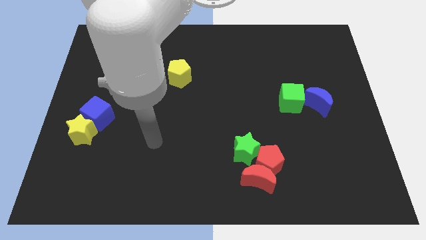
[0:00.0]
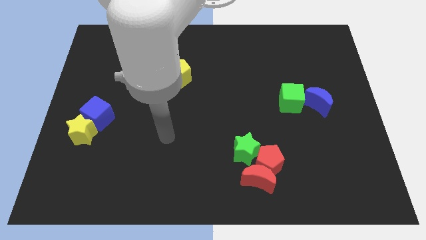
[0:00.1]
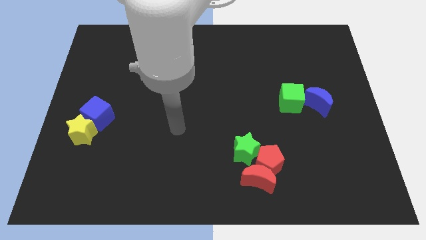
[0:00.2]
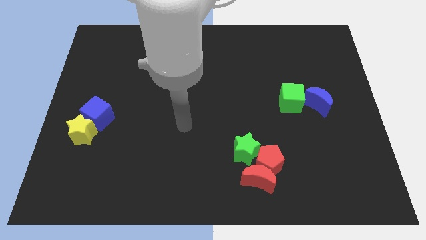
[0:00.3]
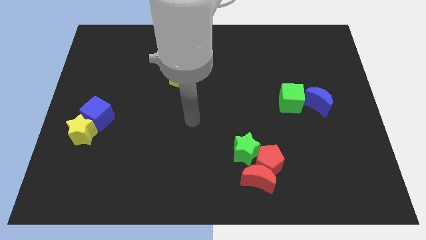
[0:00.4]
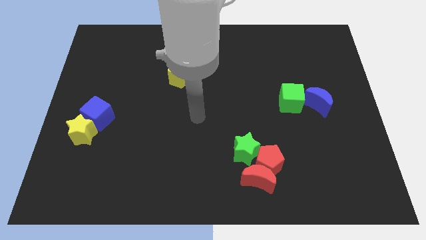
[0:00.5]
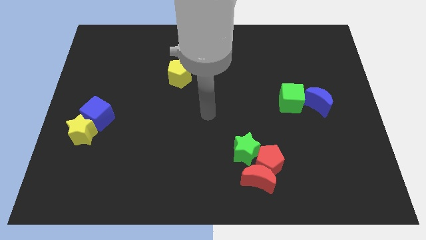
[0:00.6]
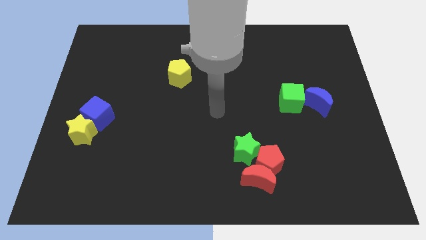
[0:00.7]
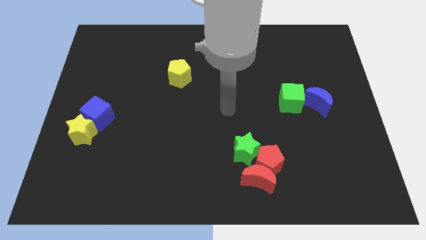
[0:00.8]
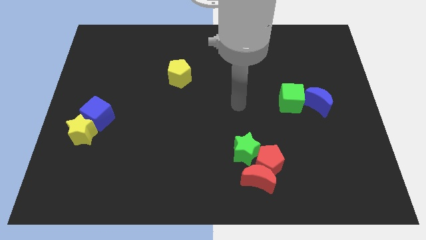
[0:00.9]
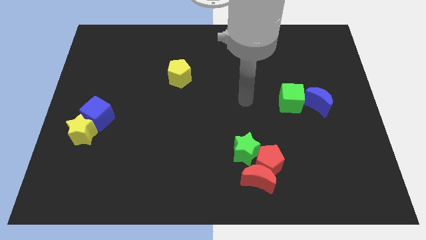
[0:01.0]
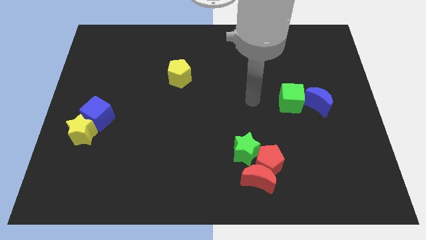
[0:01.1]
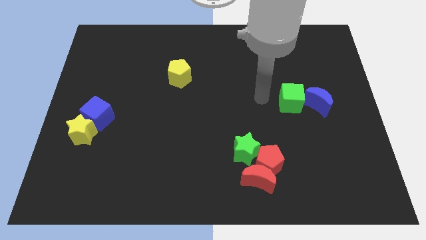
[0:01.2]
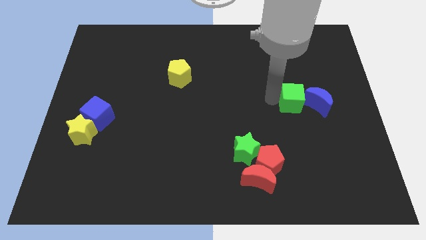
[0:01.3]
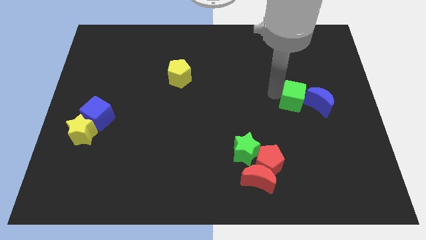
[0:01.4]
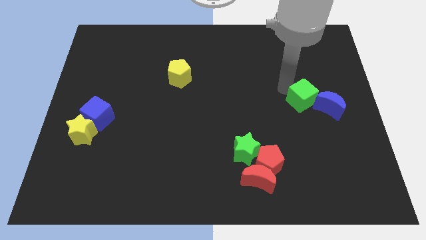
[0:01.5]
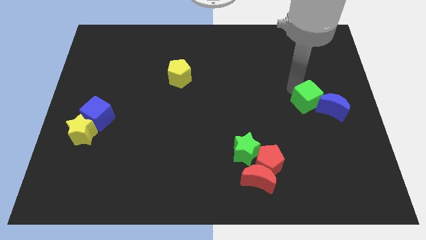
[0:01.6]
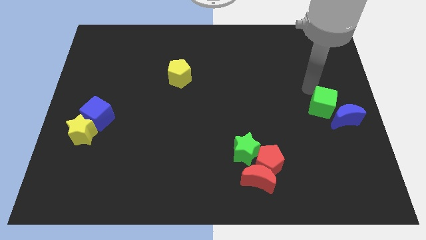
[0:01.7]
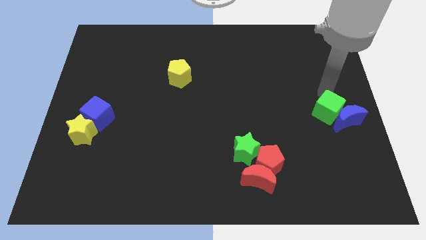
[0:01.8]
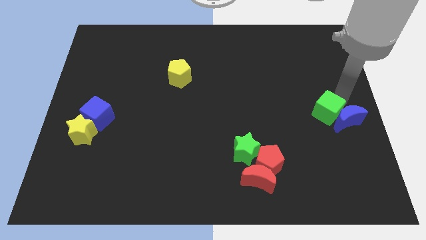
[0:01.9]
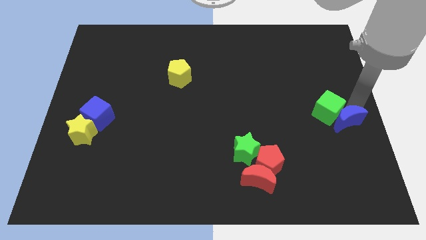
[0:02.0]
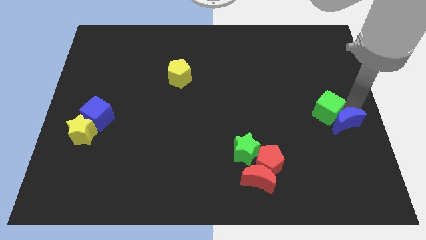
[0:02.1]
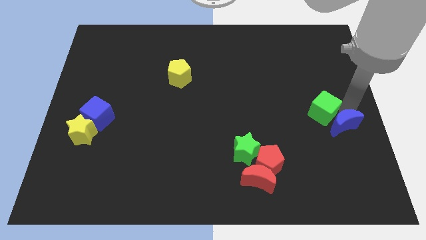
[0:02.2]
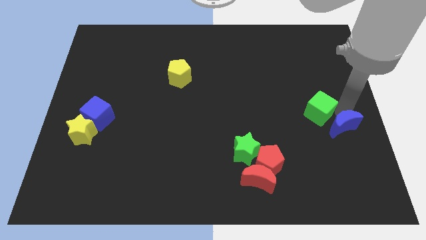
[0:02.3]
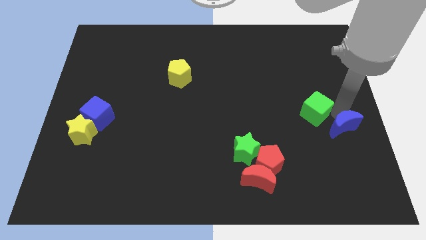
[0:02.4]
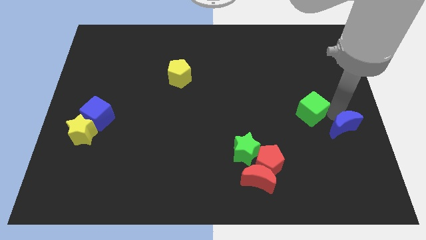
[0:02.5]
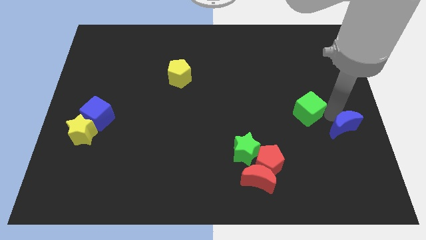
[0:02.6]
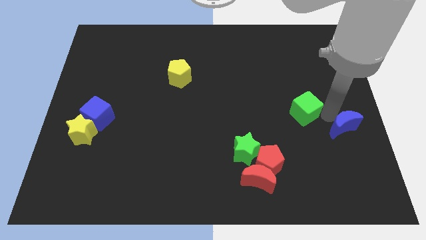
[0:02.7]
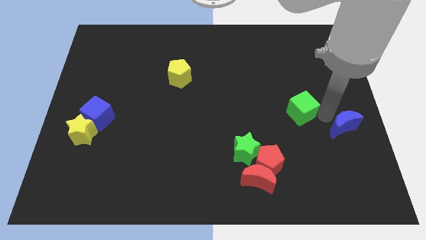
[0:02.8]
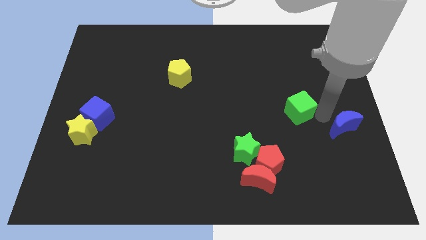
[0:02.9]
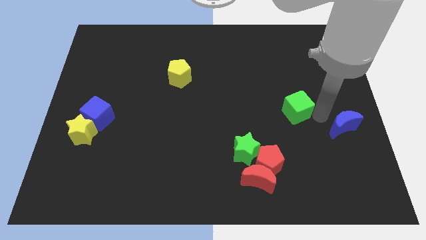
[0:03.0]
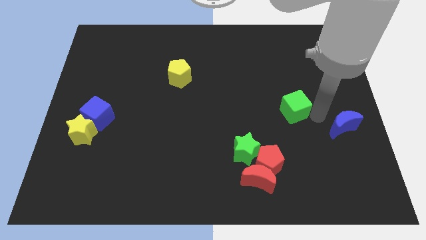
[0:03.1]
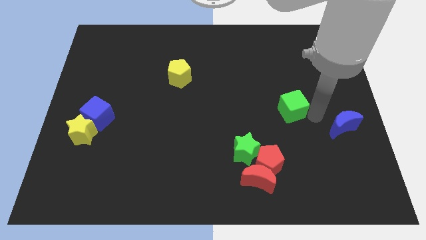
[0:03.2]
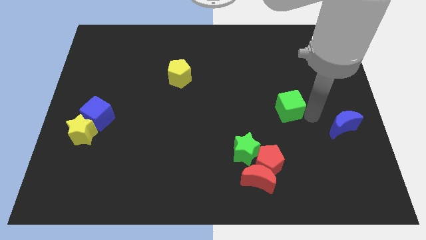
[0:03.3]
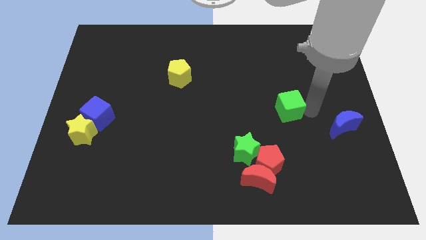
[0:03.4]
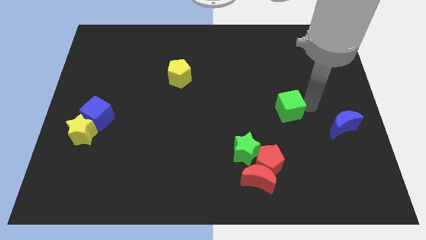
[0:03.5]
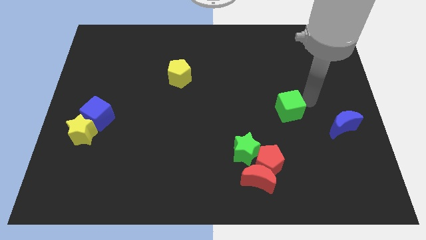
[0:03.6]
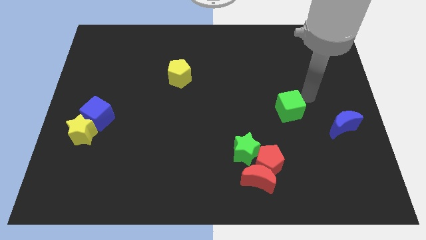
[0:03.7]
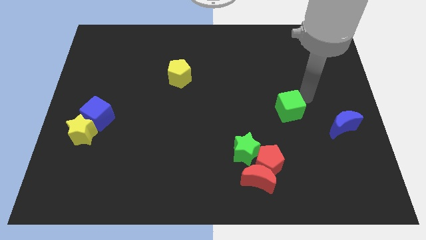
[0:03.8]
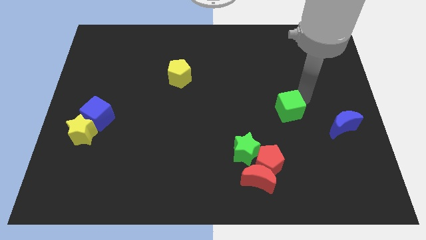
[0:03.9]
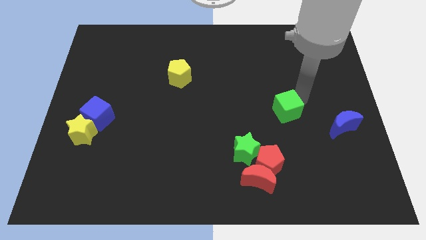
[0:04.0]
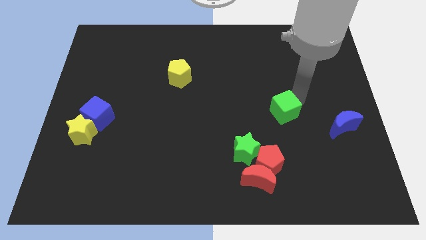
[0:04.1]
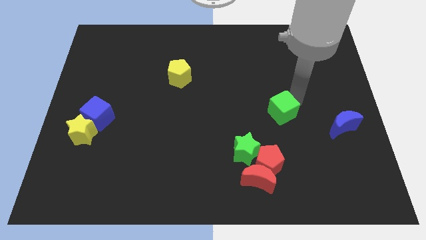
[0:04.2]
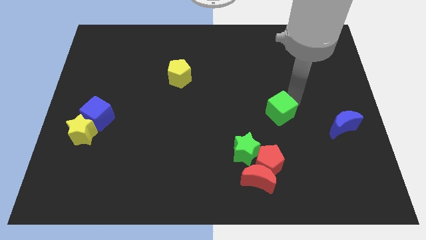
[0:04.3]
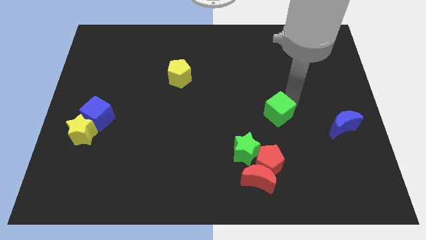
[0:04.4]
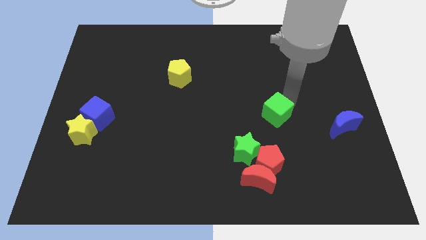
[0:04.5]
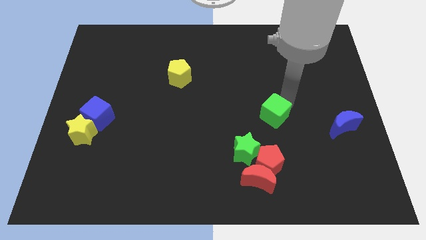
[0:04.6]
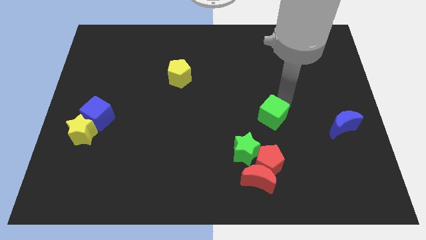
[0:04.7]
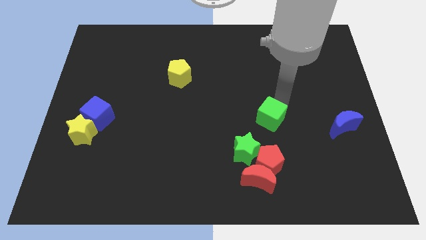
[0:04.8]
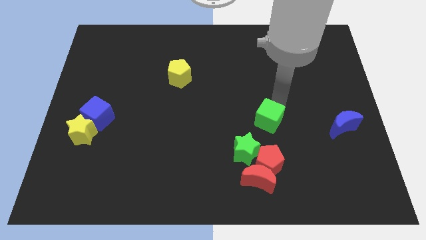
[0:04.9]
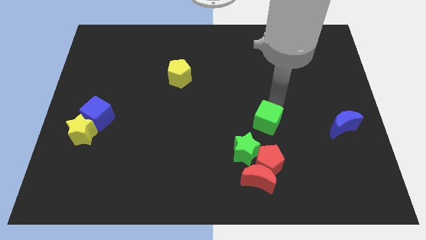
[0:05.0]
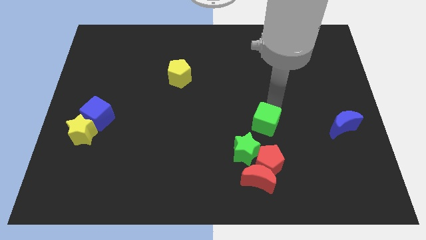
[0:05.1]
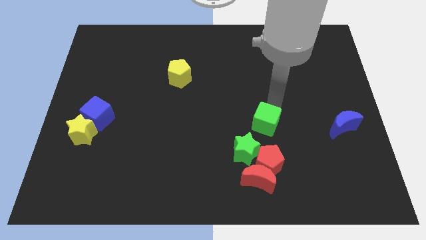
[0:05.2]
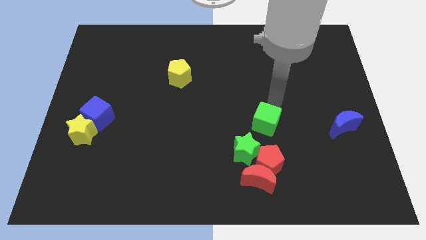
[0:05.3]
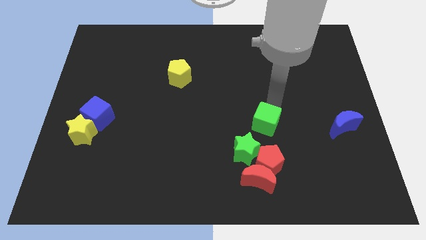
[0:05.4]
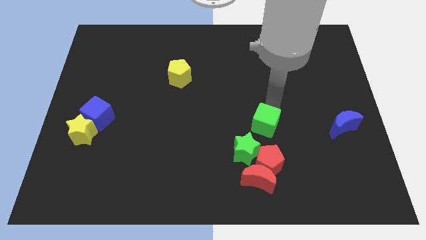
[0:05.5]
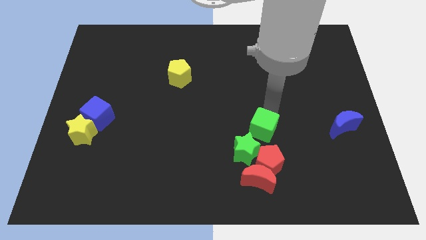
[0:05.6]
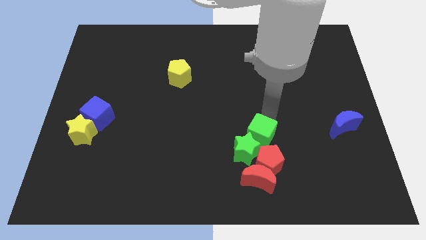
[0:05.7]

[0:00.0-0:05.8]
slide the green cube next to the green star

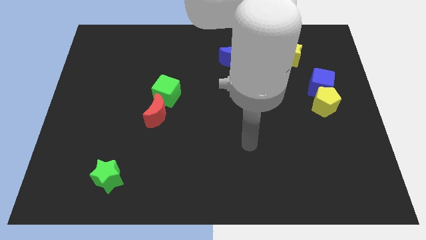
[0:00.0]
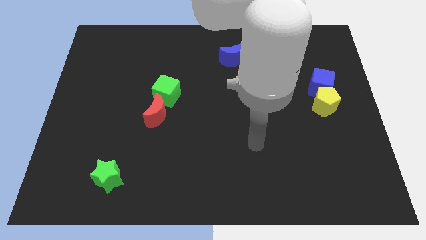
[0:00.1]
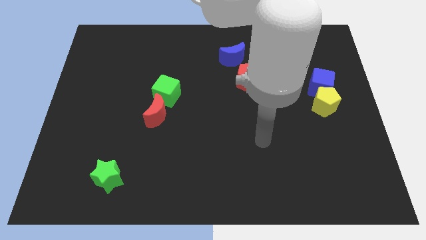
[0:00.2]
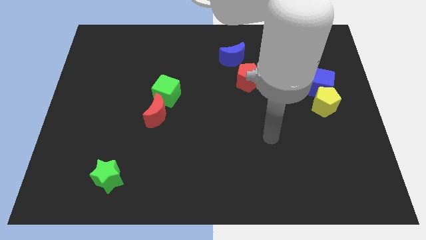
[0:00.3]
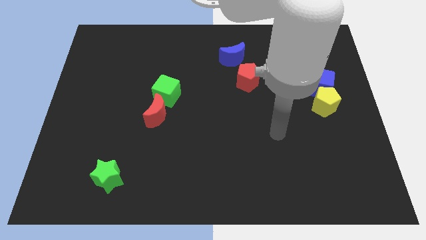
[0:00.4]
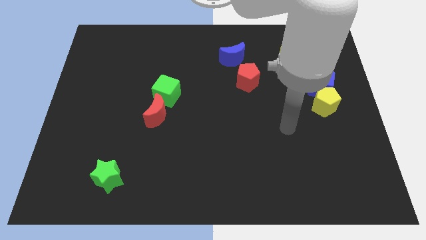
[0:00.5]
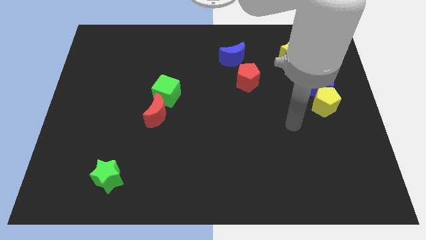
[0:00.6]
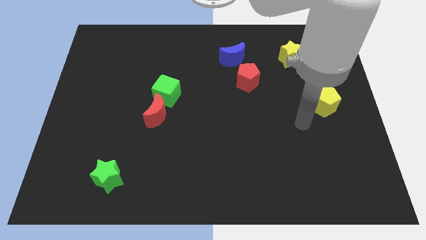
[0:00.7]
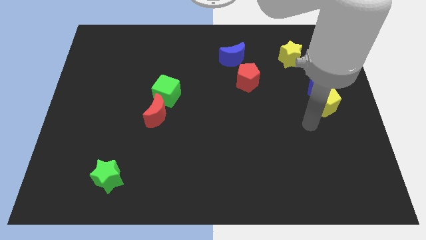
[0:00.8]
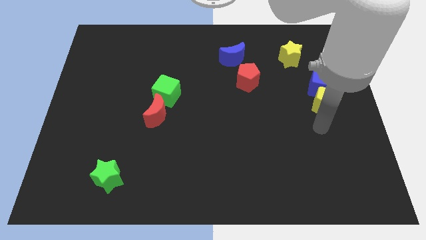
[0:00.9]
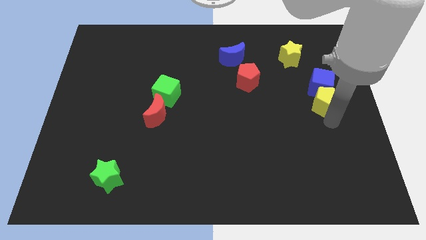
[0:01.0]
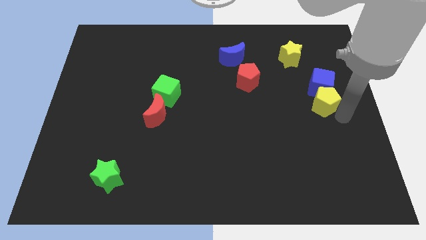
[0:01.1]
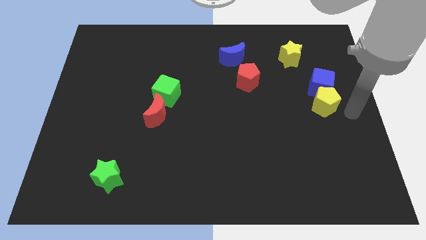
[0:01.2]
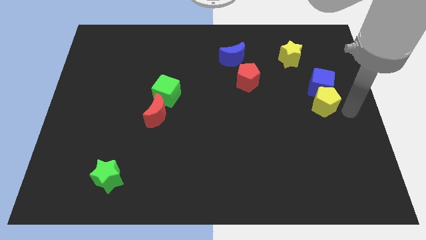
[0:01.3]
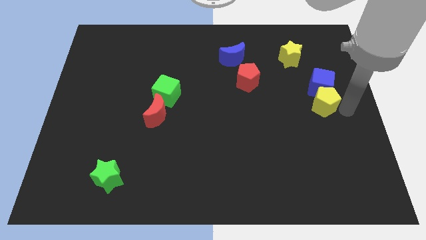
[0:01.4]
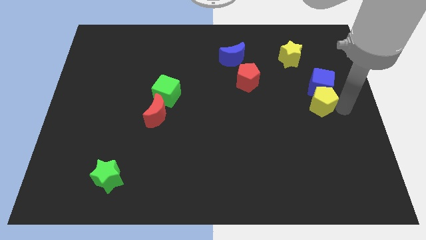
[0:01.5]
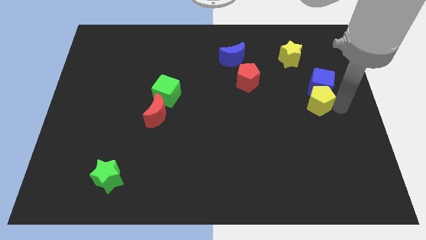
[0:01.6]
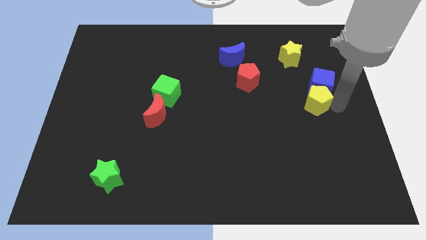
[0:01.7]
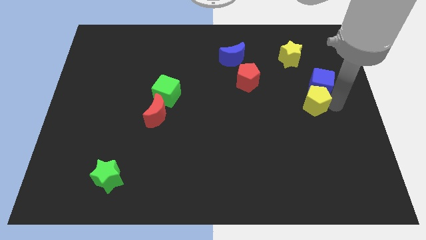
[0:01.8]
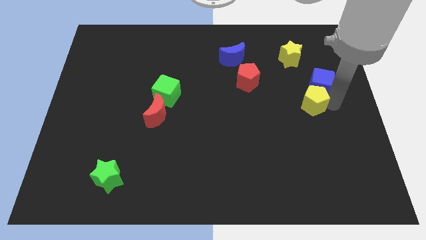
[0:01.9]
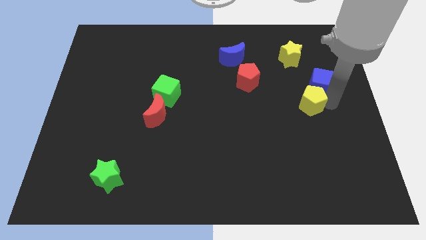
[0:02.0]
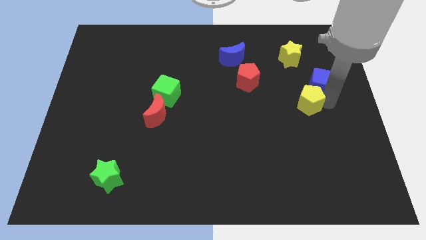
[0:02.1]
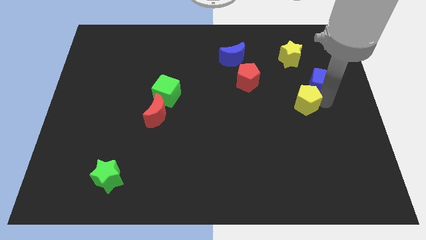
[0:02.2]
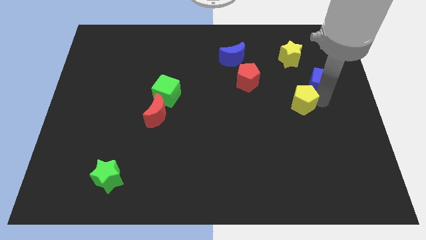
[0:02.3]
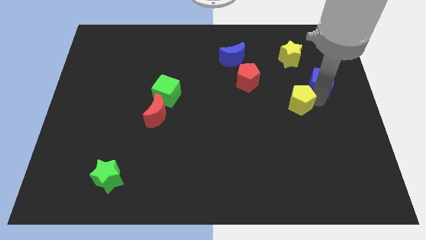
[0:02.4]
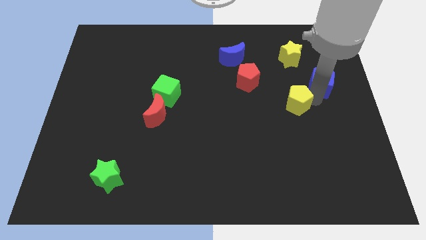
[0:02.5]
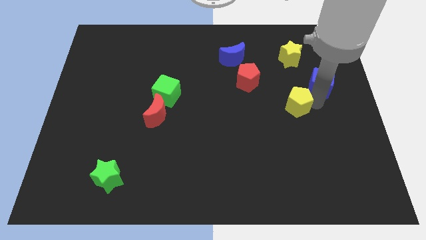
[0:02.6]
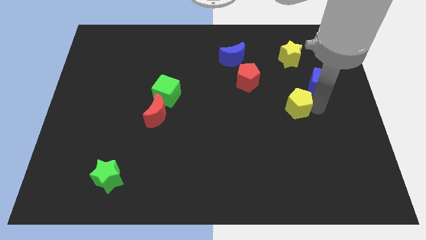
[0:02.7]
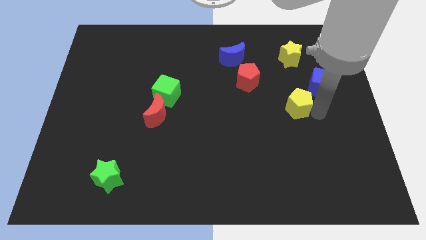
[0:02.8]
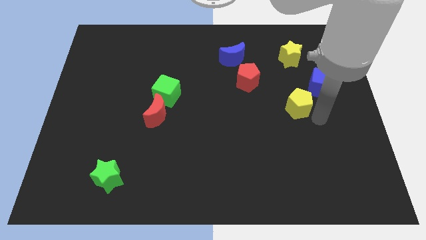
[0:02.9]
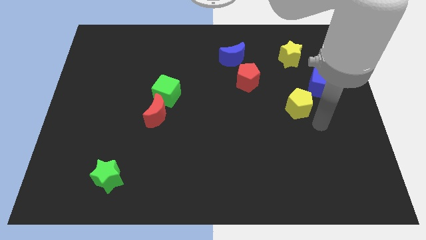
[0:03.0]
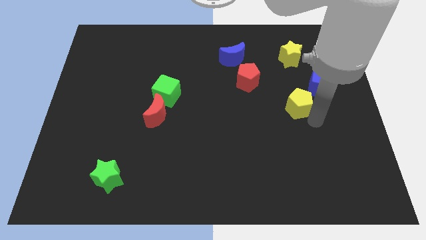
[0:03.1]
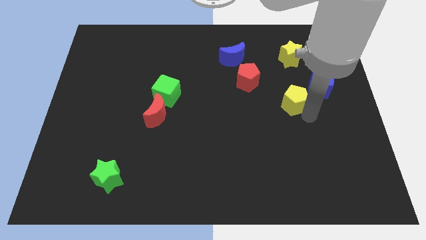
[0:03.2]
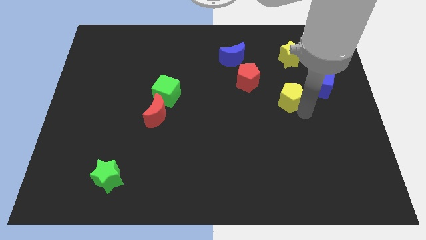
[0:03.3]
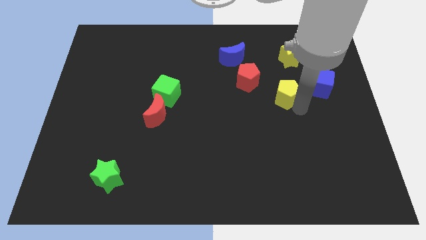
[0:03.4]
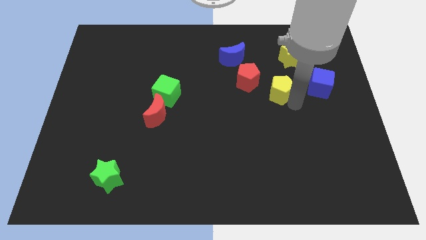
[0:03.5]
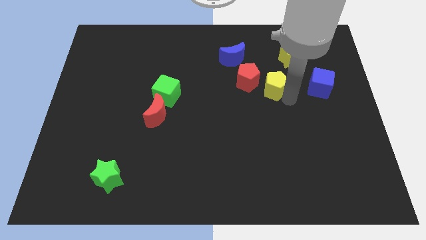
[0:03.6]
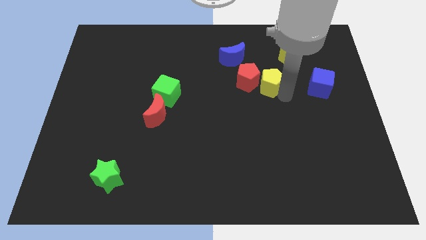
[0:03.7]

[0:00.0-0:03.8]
move the yellow pentagon close to the red pentagon
